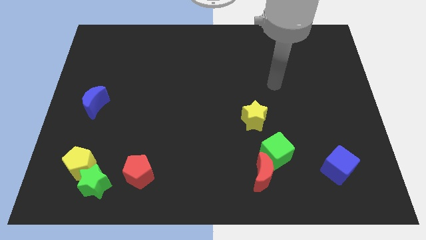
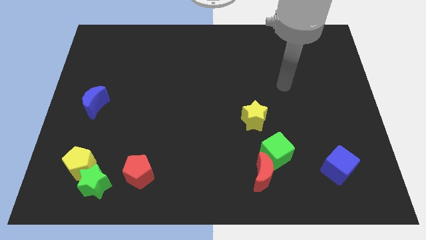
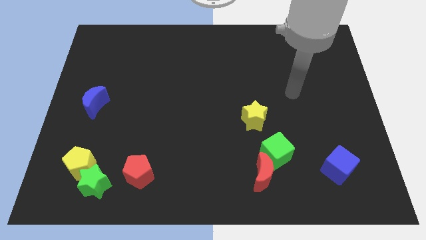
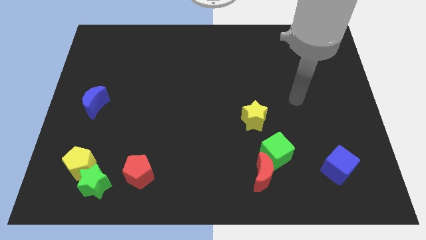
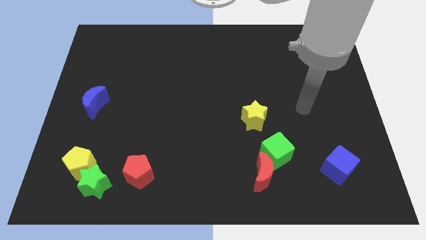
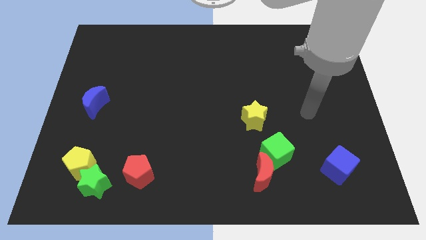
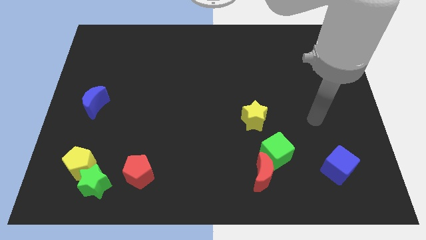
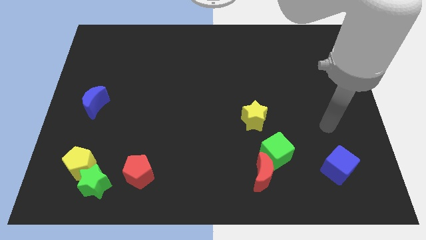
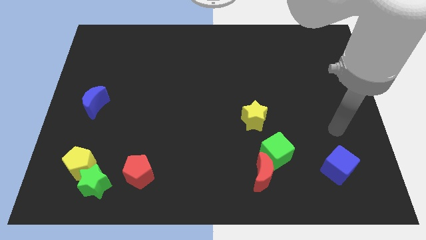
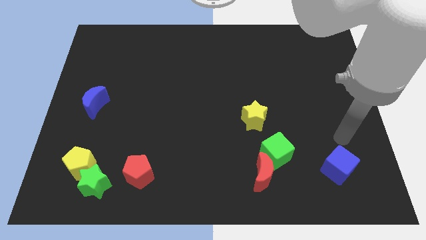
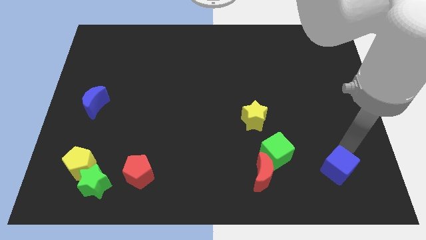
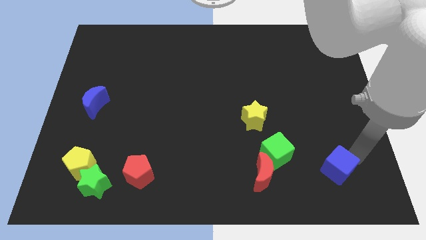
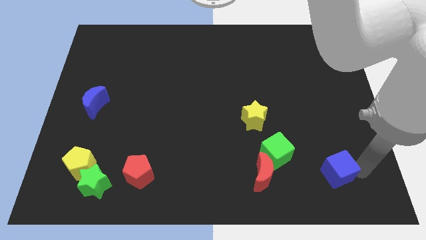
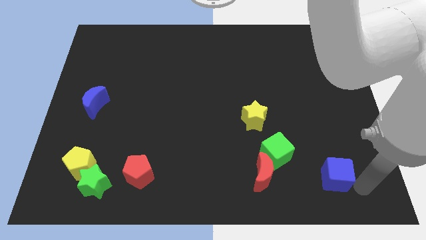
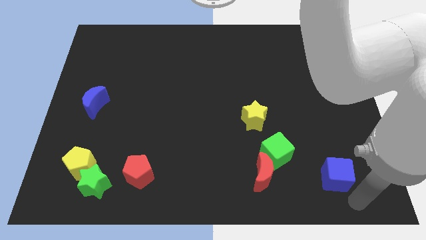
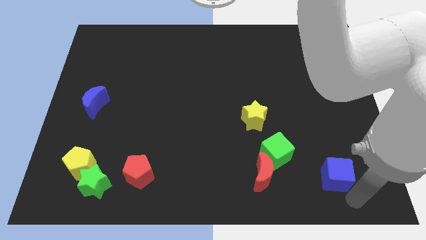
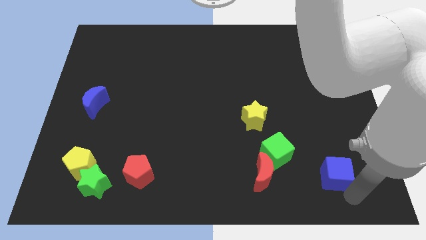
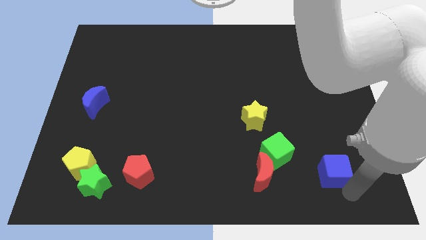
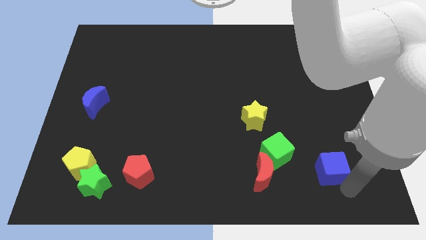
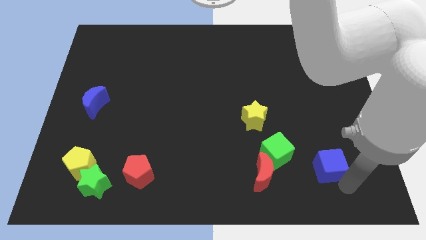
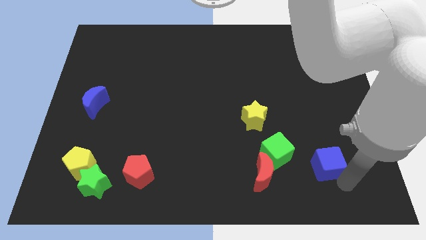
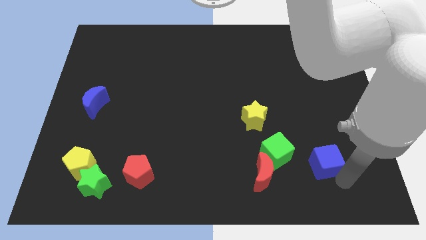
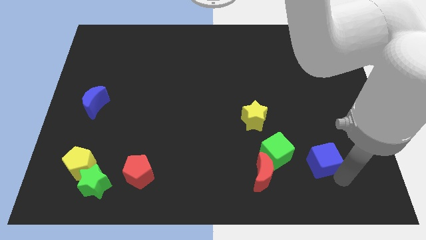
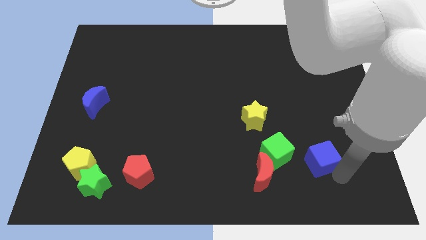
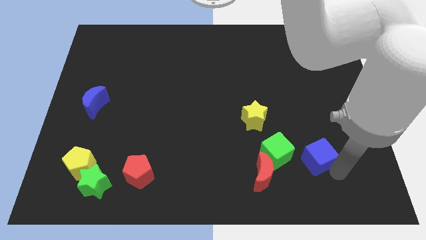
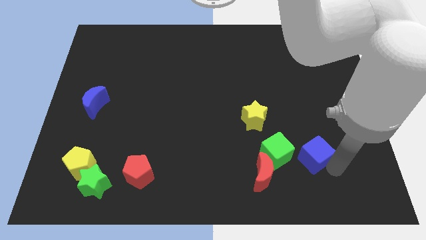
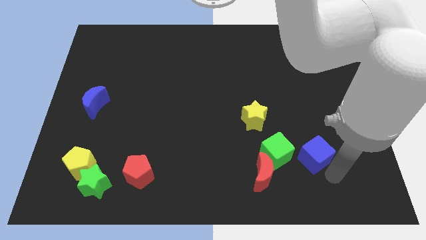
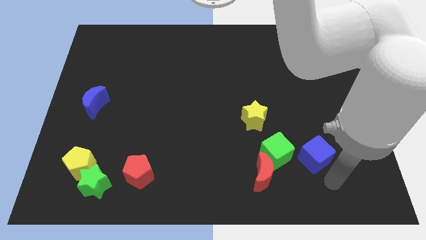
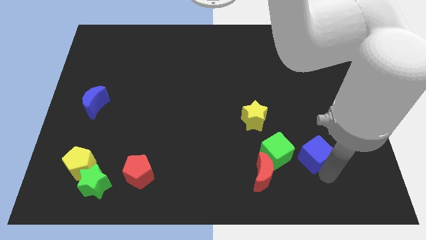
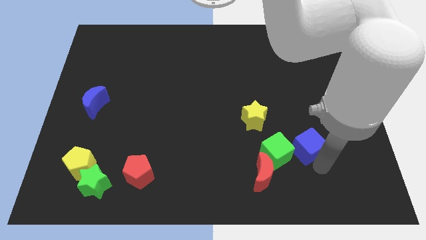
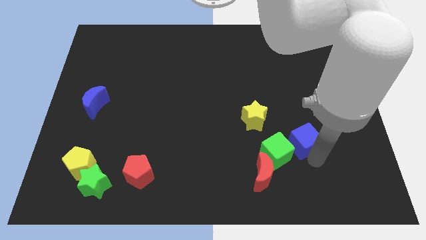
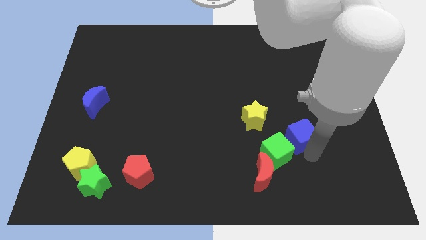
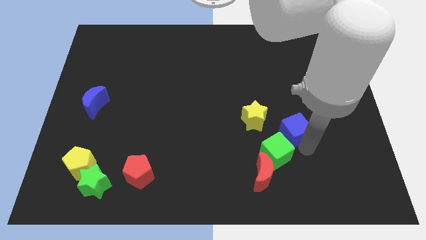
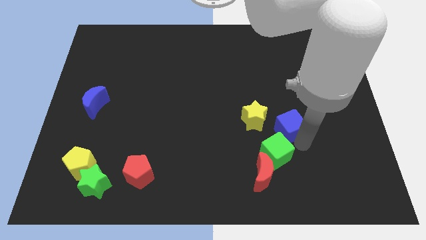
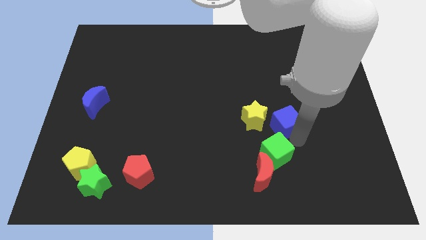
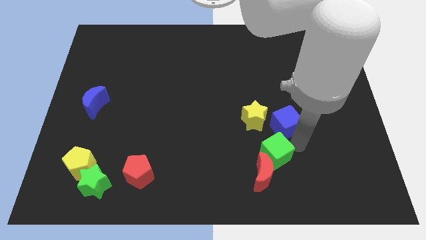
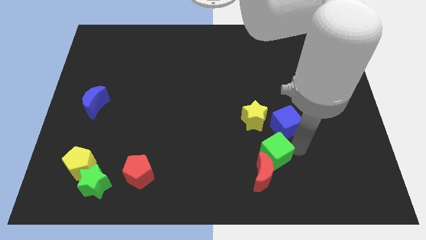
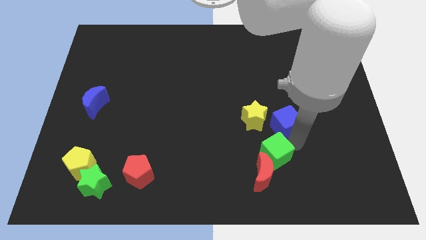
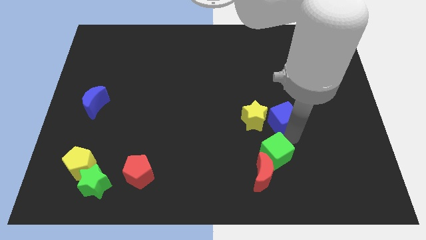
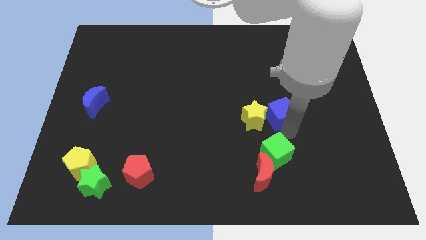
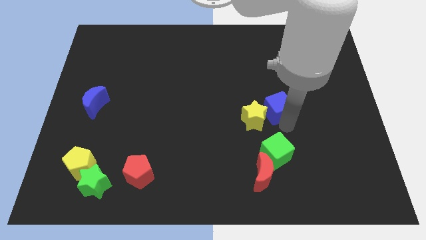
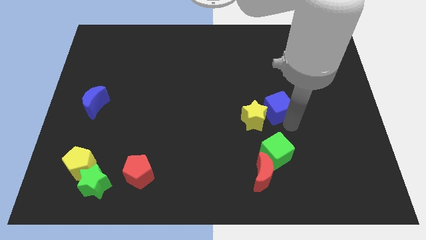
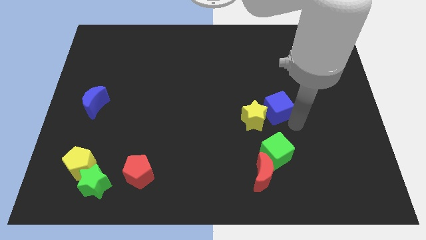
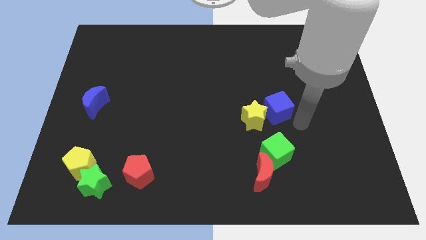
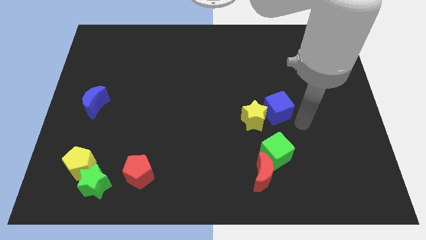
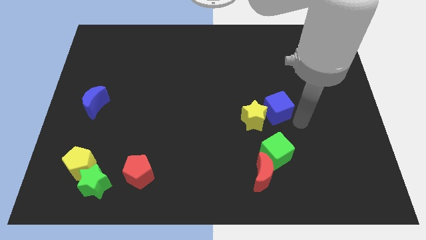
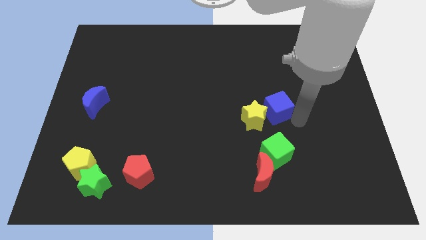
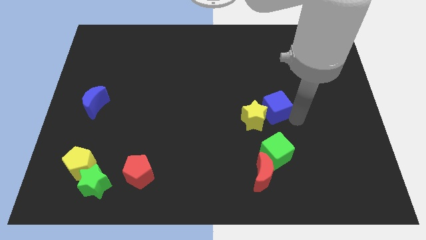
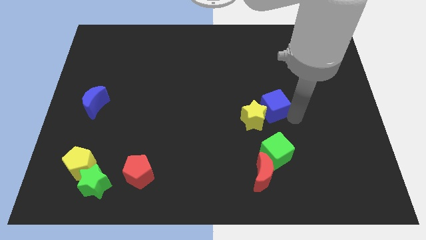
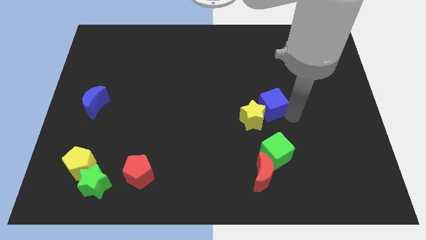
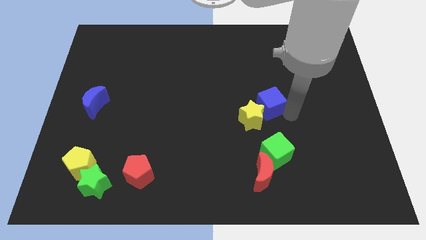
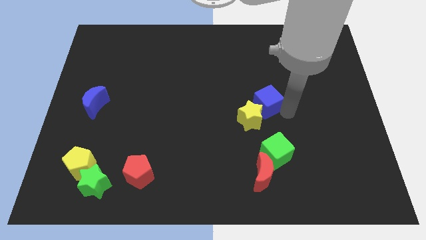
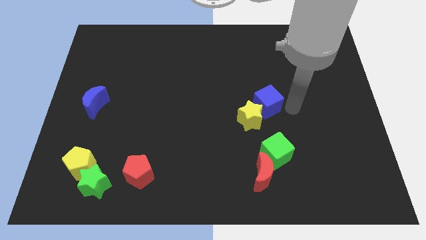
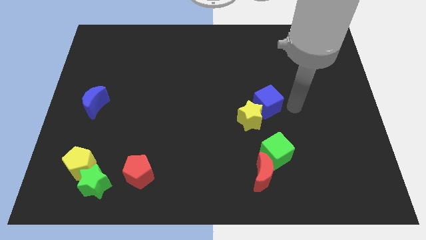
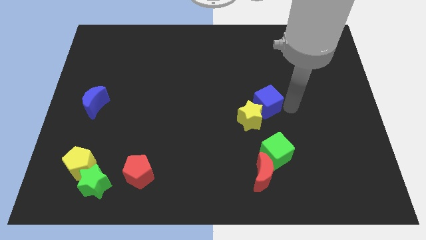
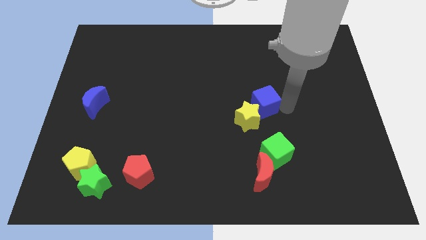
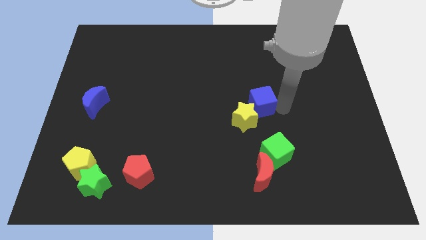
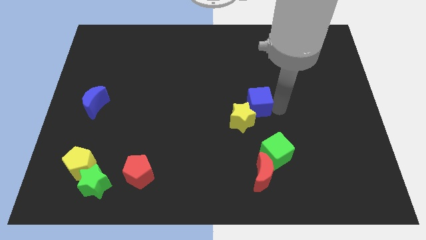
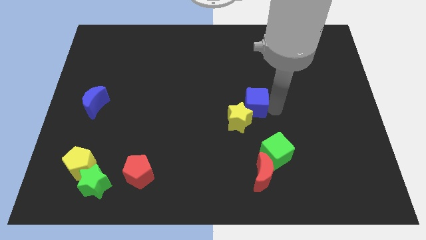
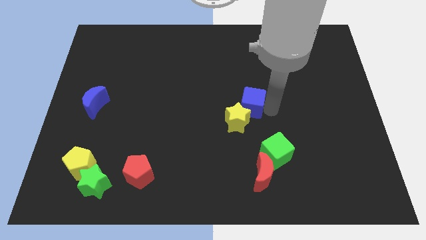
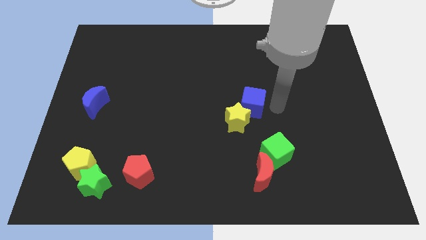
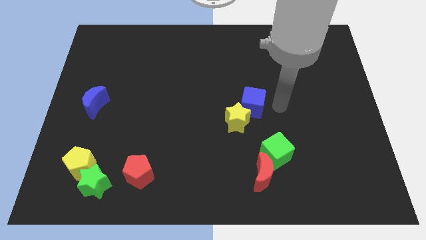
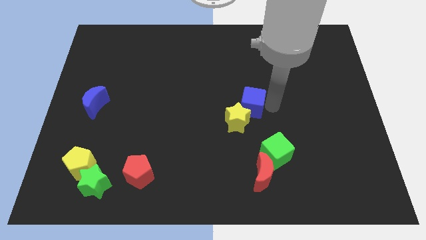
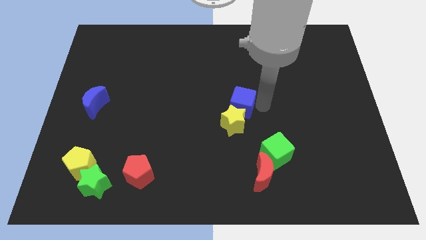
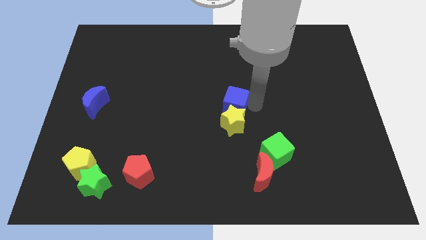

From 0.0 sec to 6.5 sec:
move the blue cube to the top left of the yellow star

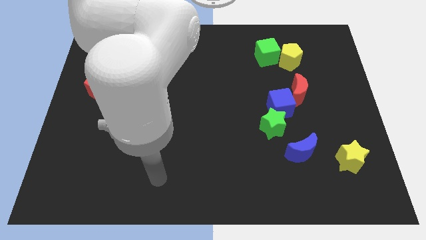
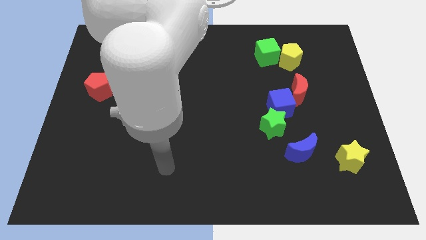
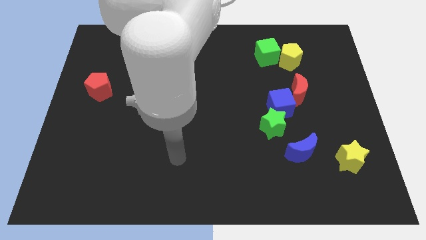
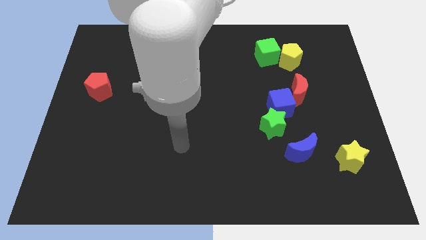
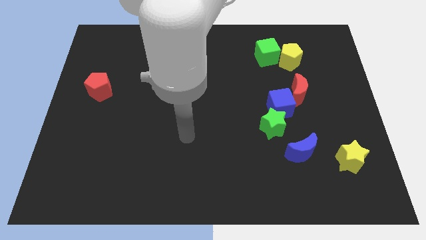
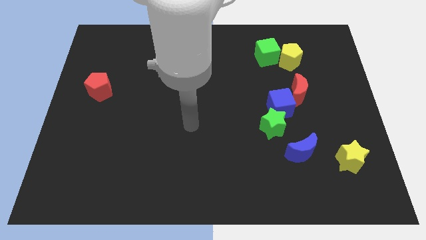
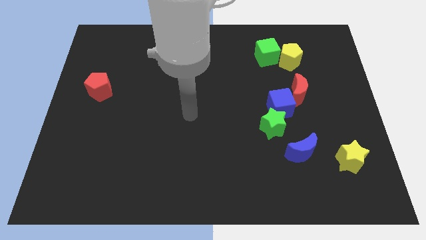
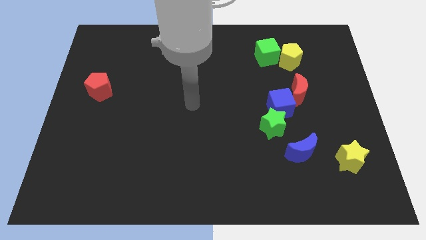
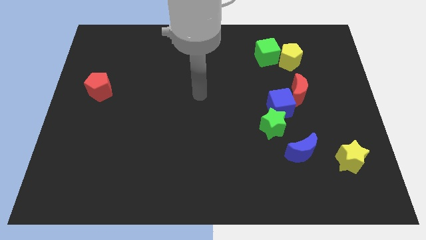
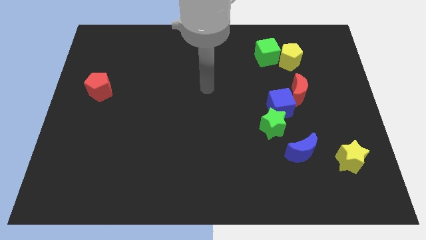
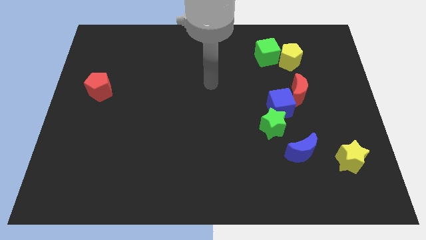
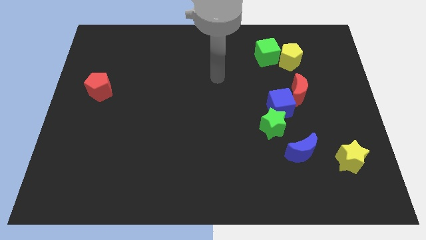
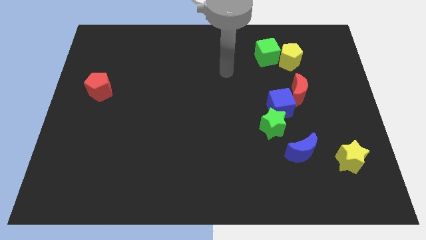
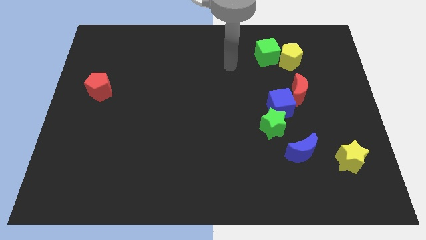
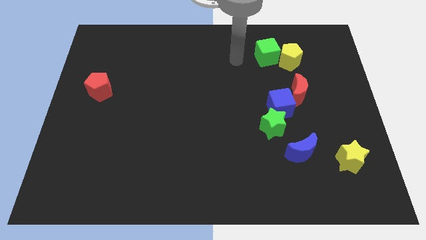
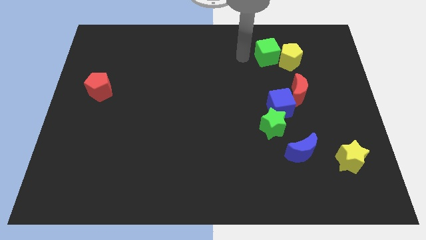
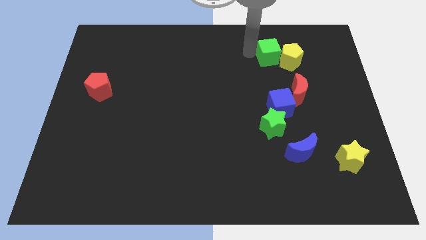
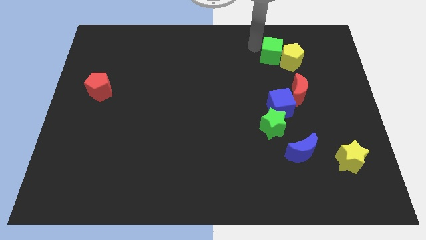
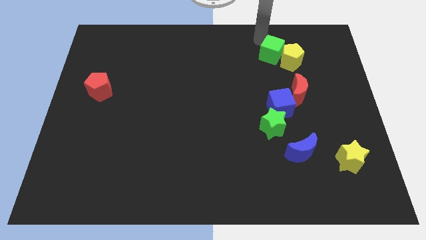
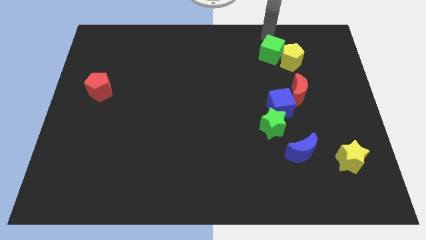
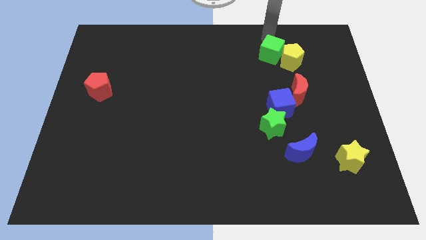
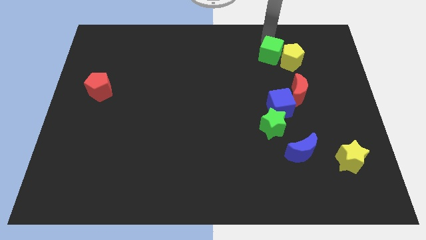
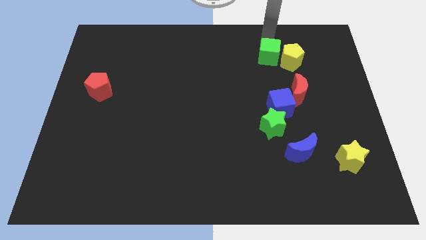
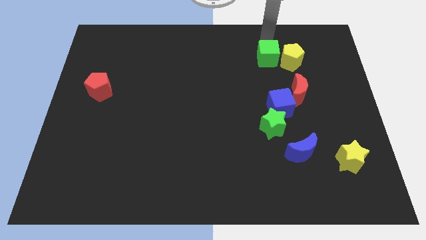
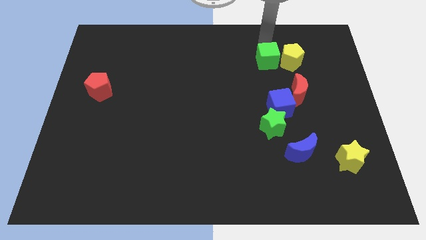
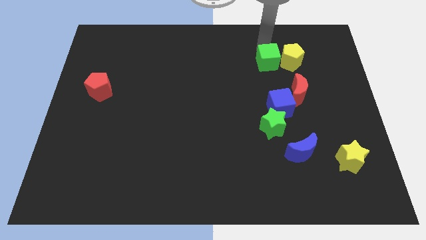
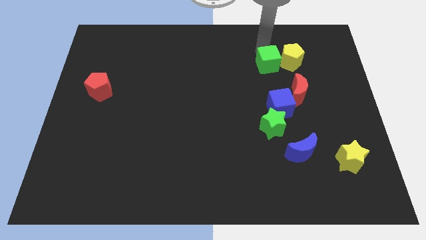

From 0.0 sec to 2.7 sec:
slide the green cube to the top left side of the red moon
